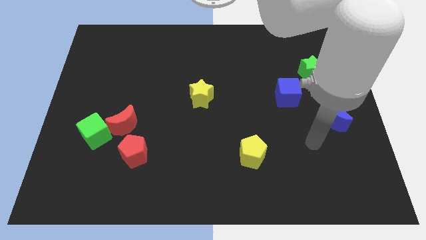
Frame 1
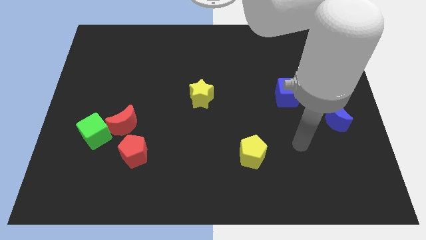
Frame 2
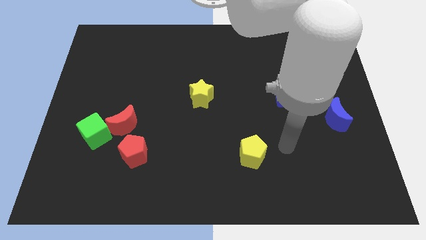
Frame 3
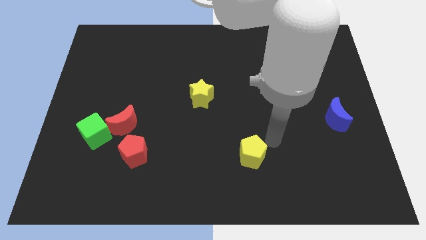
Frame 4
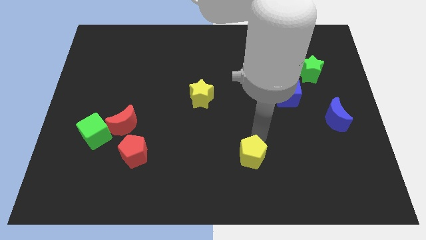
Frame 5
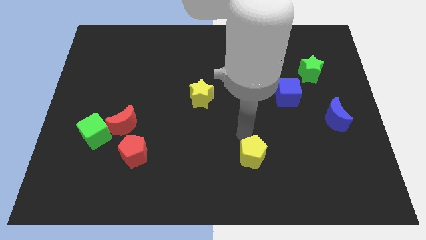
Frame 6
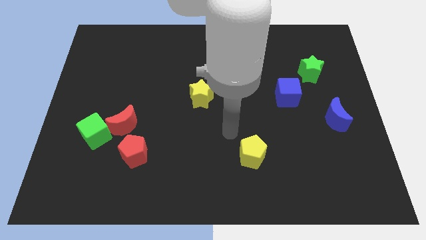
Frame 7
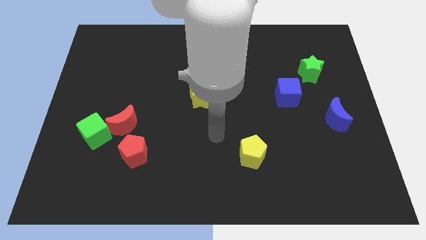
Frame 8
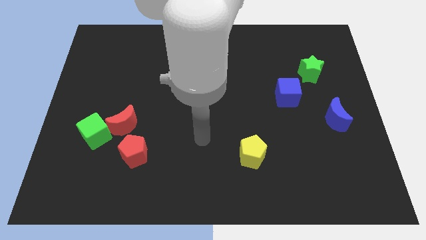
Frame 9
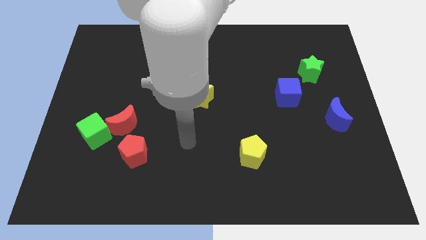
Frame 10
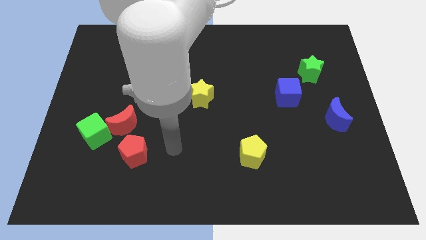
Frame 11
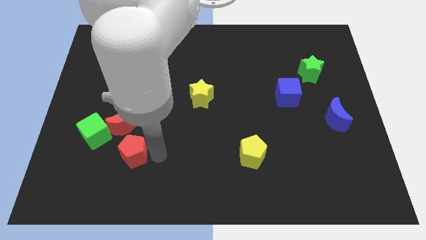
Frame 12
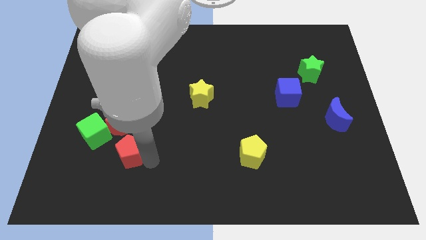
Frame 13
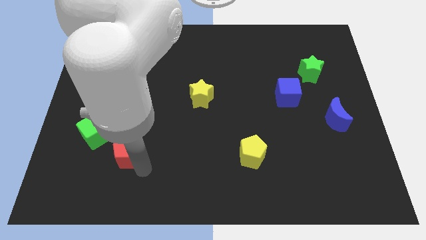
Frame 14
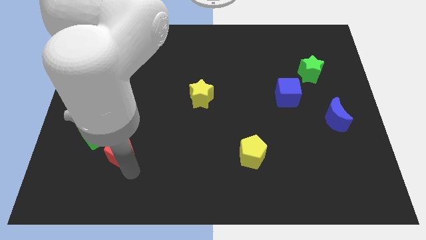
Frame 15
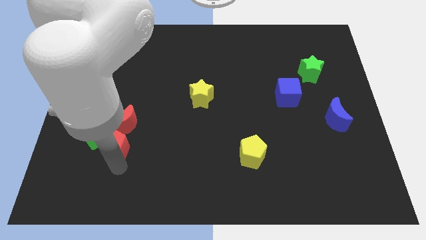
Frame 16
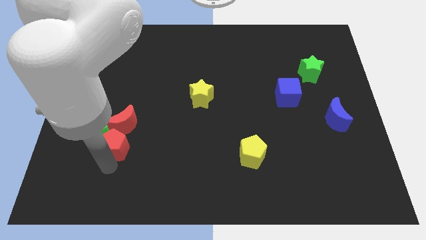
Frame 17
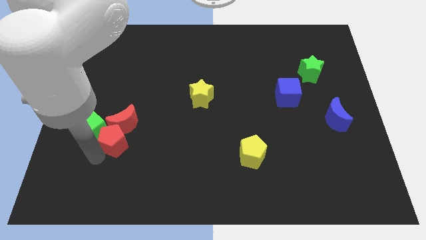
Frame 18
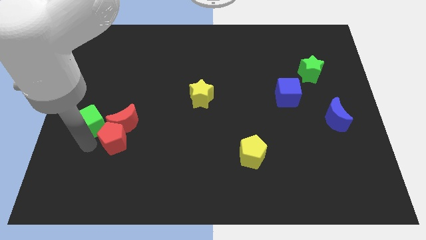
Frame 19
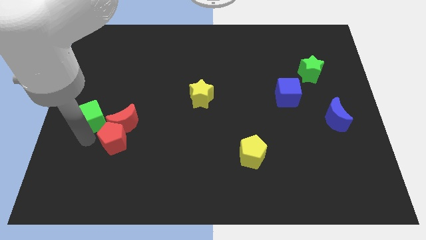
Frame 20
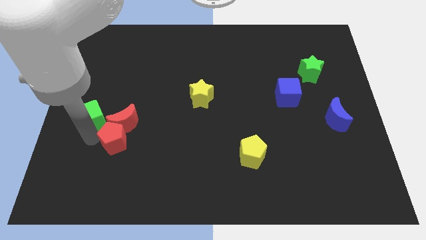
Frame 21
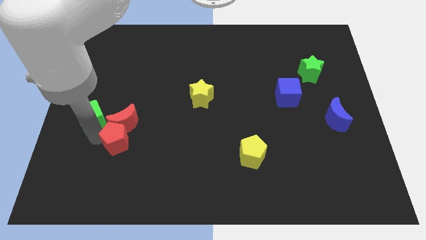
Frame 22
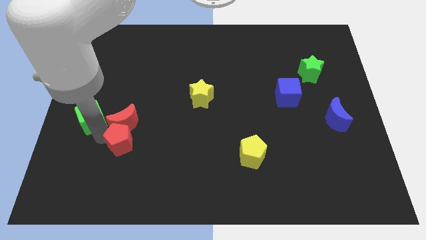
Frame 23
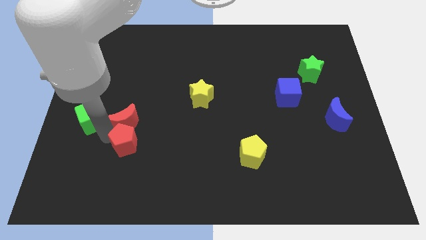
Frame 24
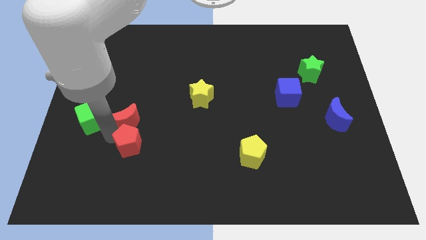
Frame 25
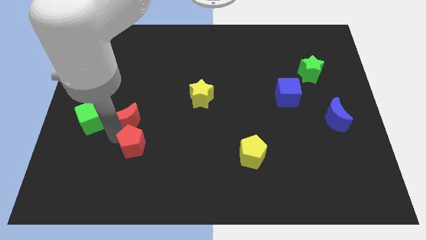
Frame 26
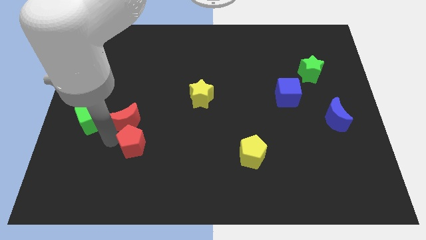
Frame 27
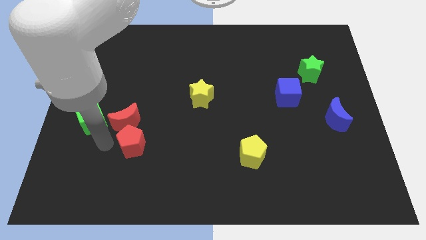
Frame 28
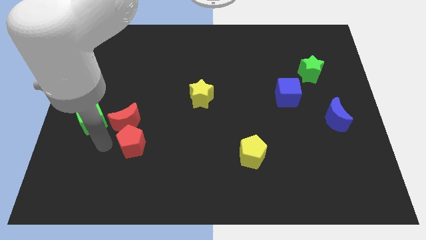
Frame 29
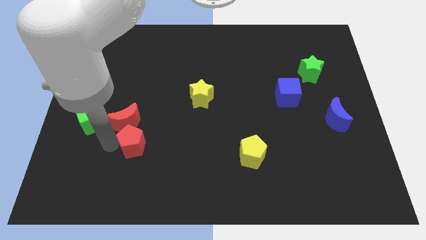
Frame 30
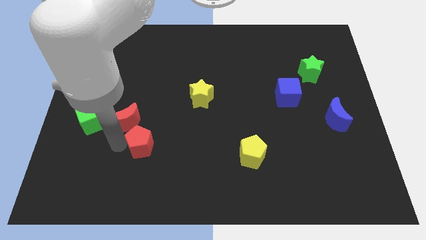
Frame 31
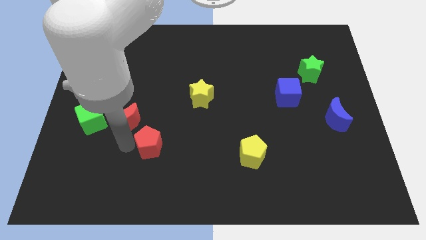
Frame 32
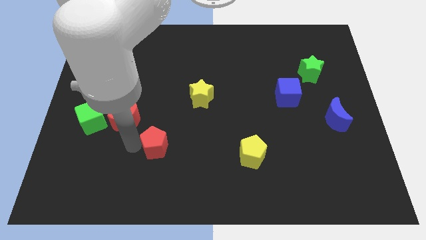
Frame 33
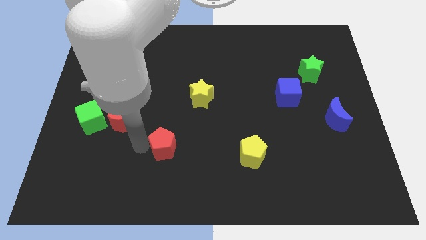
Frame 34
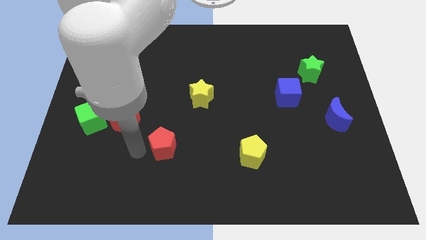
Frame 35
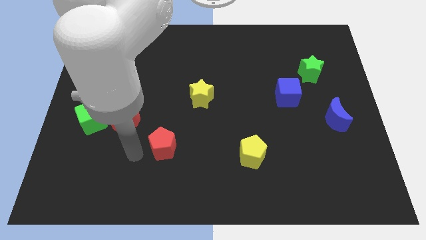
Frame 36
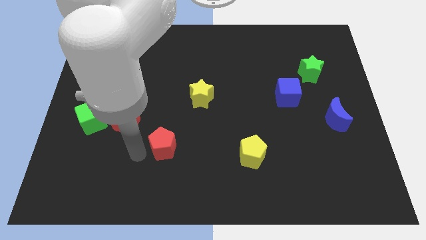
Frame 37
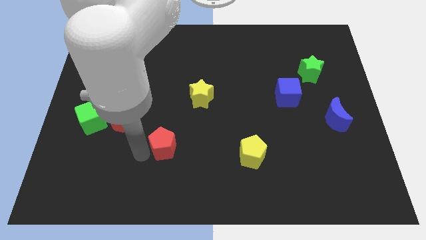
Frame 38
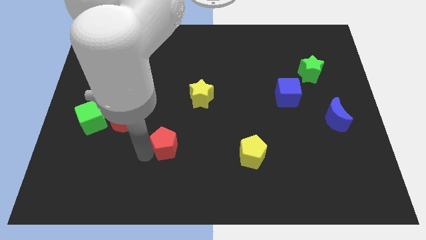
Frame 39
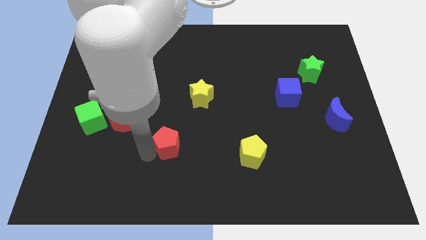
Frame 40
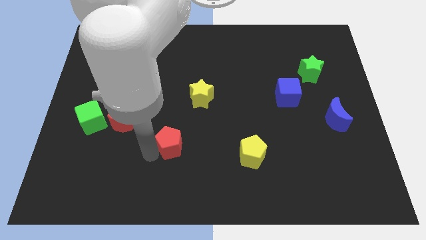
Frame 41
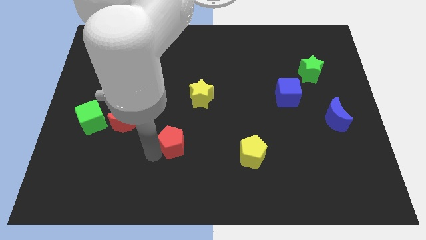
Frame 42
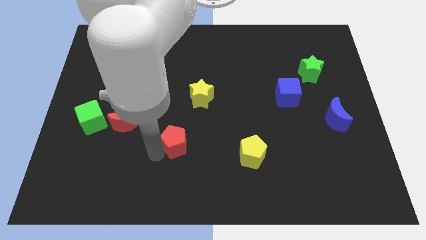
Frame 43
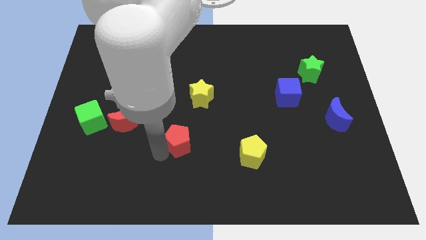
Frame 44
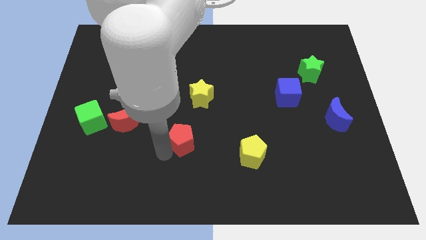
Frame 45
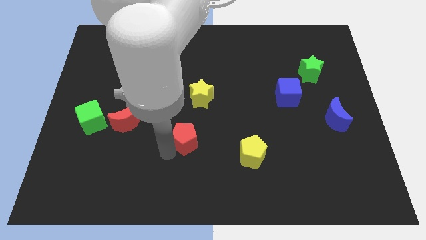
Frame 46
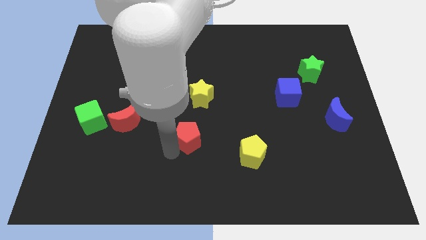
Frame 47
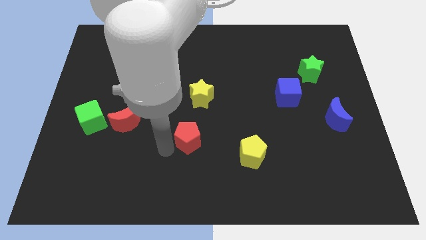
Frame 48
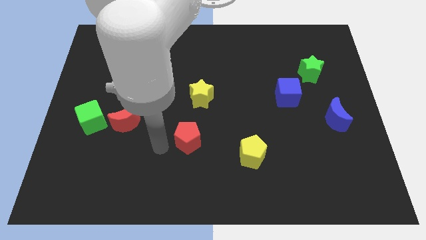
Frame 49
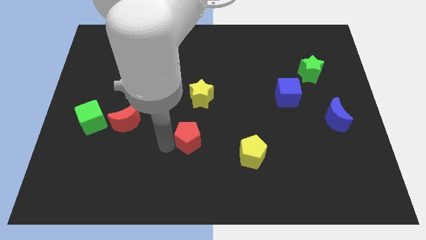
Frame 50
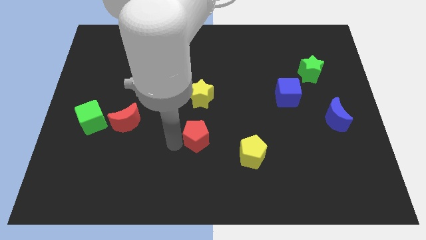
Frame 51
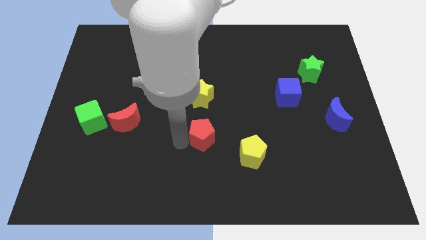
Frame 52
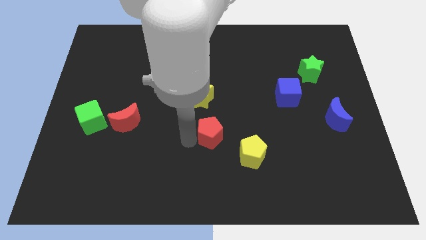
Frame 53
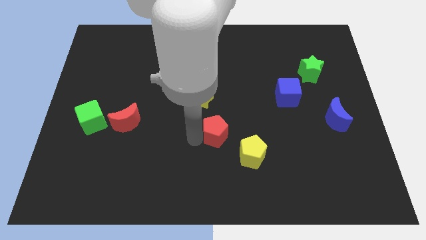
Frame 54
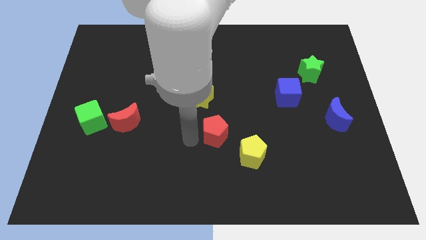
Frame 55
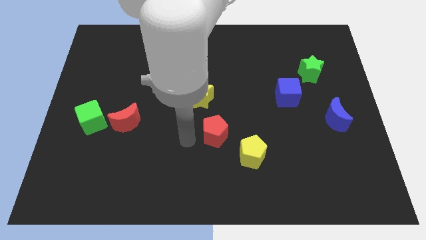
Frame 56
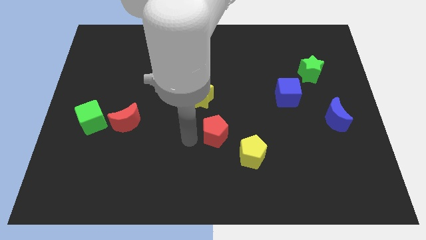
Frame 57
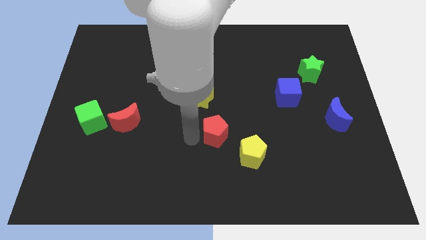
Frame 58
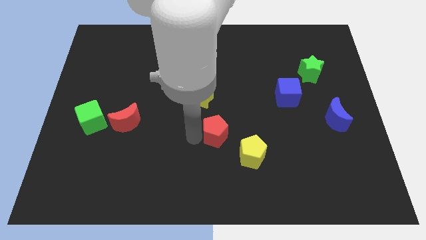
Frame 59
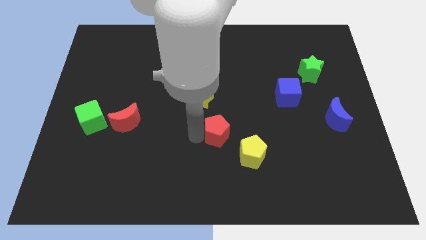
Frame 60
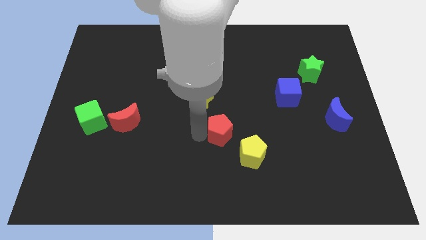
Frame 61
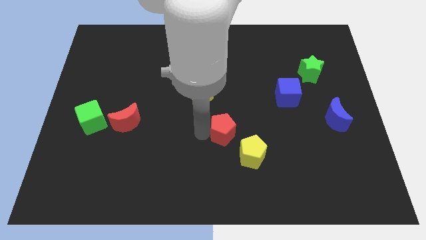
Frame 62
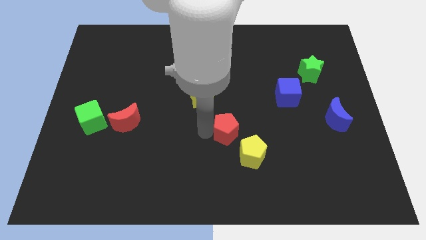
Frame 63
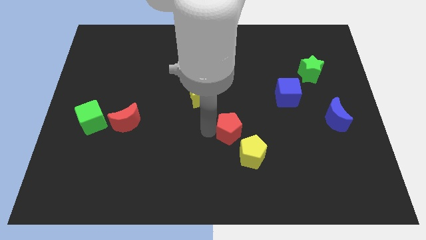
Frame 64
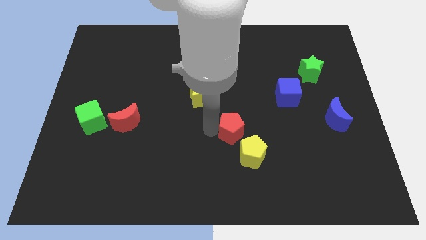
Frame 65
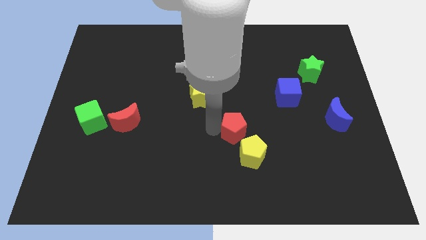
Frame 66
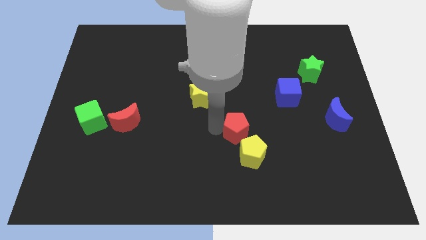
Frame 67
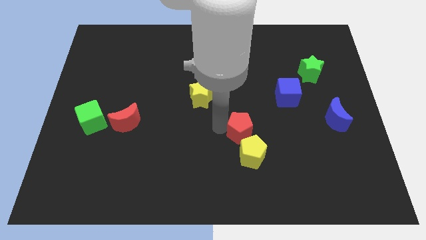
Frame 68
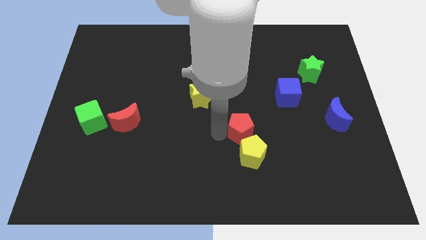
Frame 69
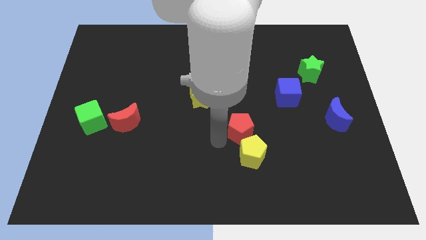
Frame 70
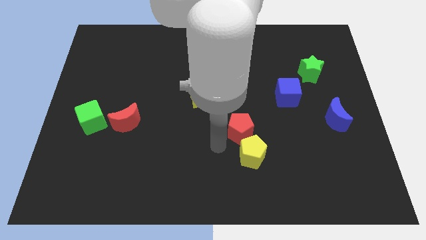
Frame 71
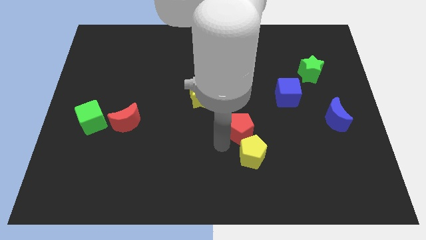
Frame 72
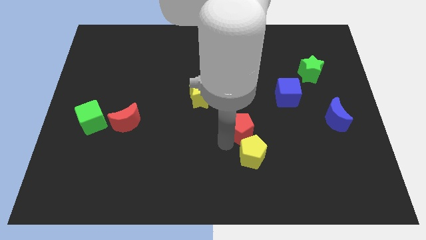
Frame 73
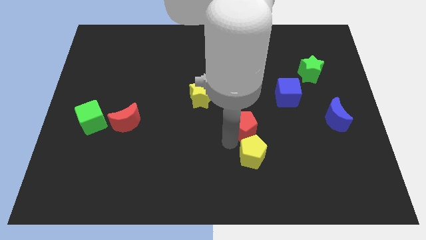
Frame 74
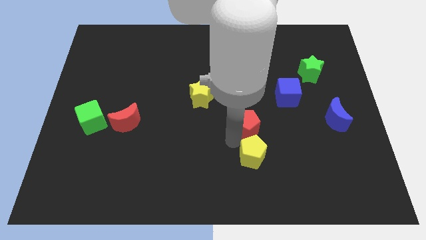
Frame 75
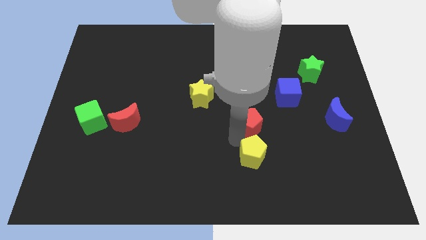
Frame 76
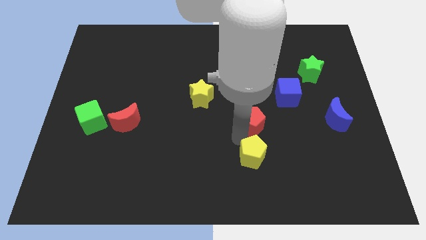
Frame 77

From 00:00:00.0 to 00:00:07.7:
put the red pentagon to the bottom left of the blue cube

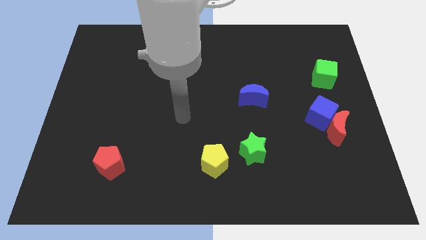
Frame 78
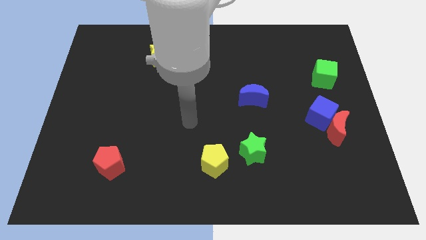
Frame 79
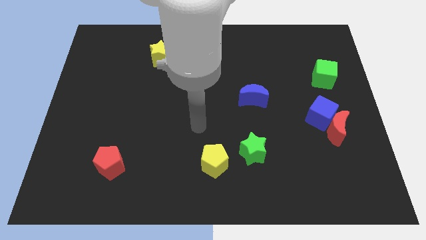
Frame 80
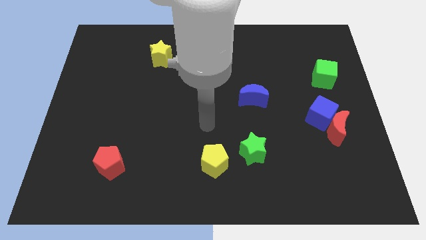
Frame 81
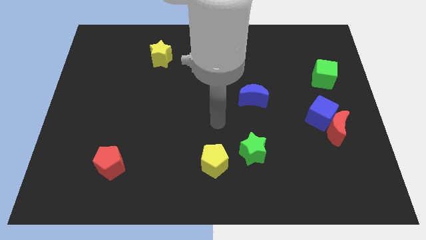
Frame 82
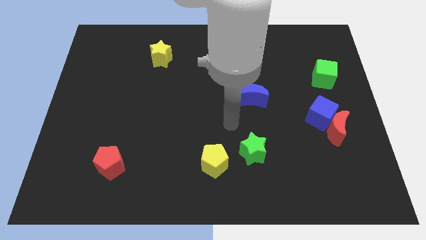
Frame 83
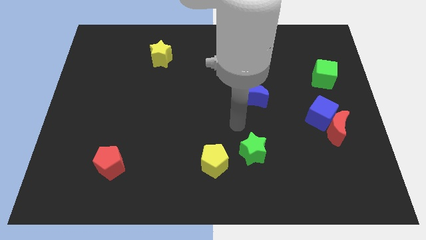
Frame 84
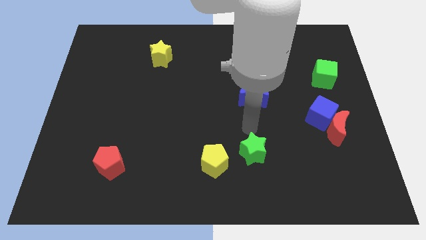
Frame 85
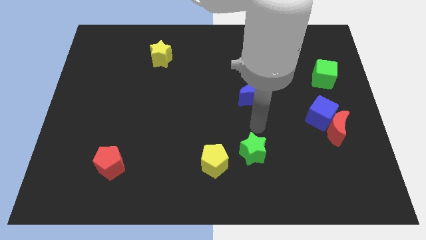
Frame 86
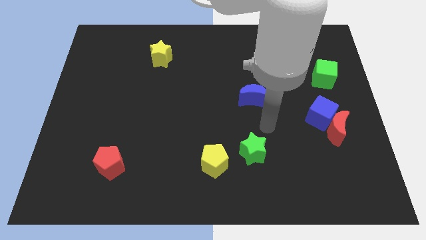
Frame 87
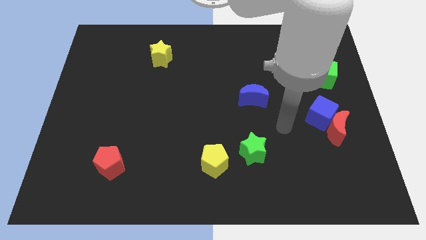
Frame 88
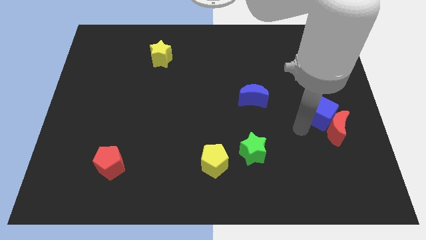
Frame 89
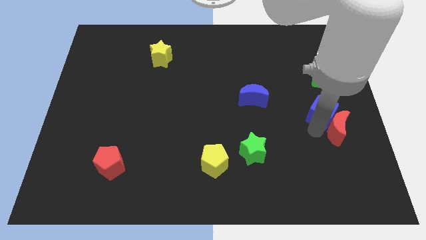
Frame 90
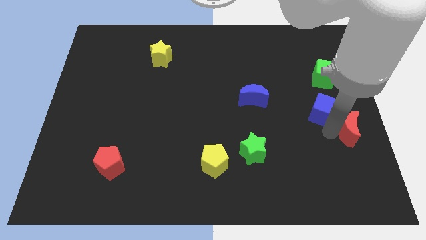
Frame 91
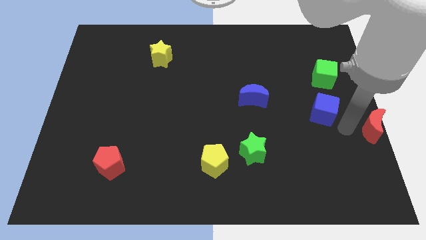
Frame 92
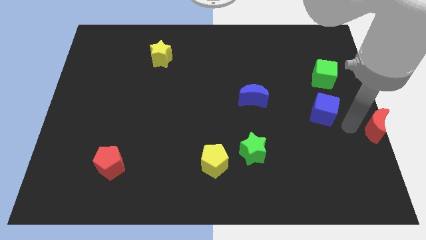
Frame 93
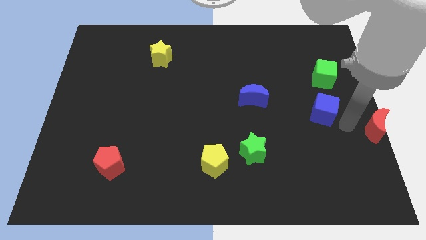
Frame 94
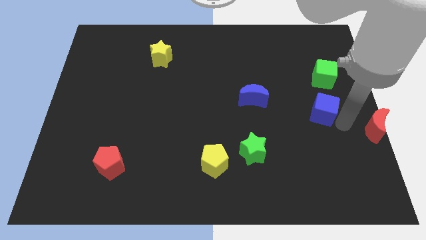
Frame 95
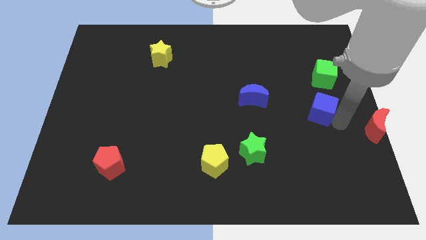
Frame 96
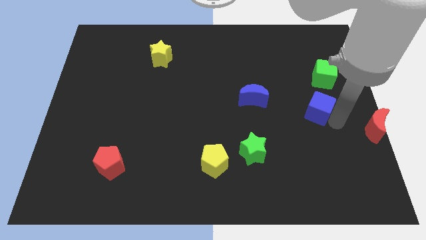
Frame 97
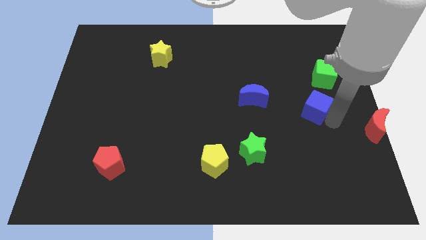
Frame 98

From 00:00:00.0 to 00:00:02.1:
slide the blue cube just right of the blue moon
